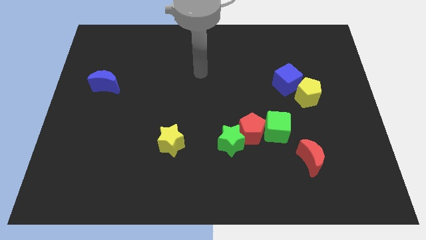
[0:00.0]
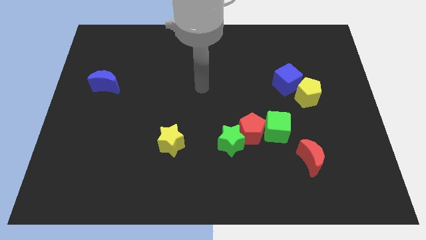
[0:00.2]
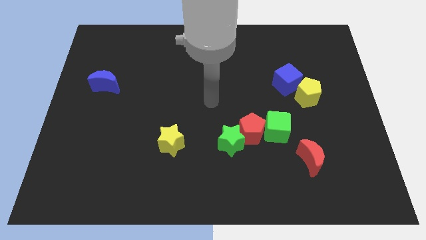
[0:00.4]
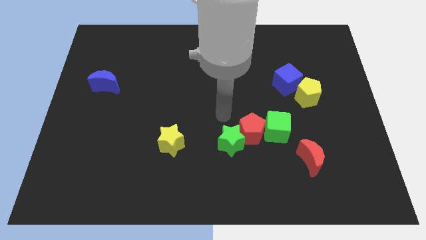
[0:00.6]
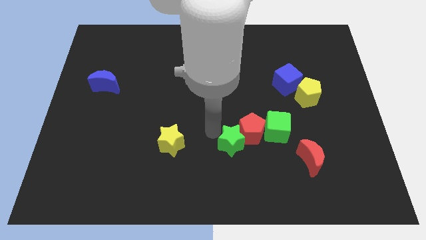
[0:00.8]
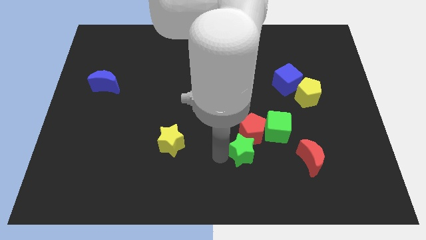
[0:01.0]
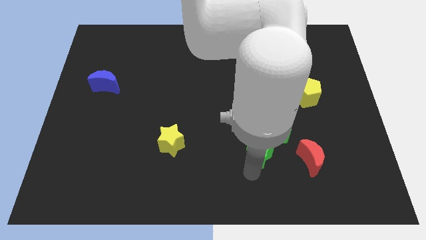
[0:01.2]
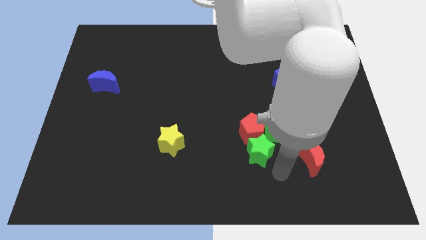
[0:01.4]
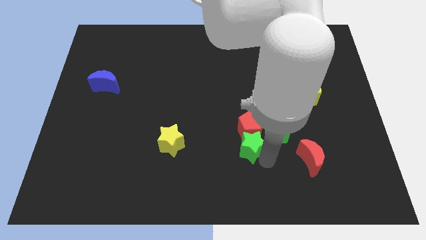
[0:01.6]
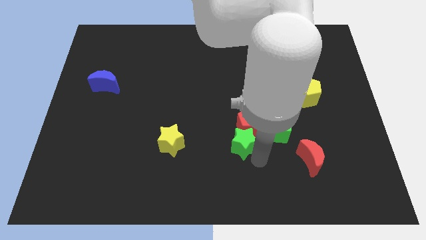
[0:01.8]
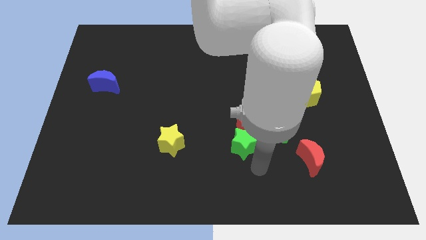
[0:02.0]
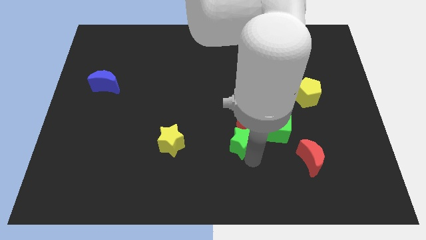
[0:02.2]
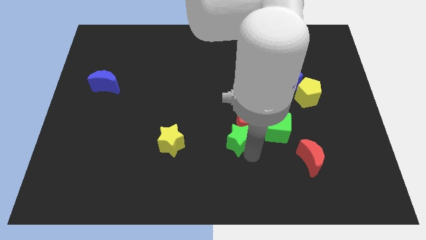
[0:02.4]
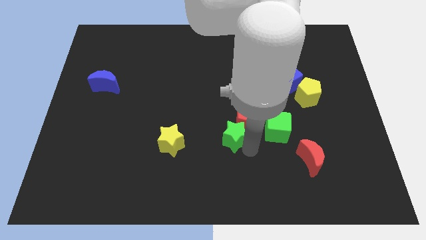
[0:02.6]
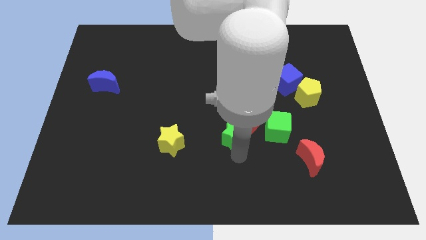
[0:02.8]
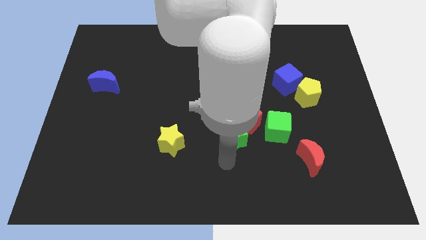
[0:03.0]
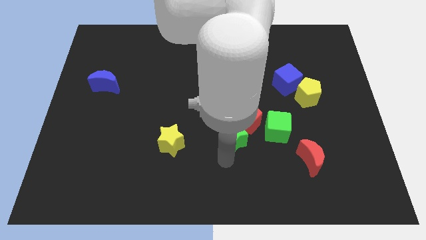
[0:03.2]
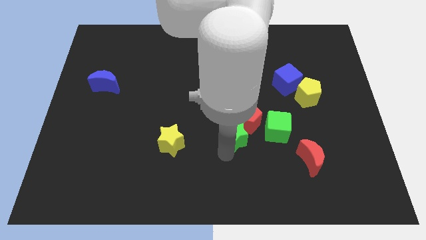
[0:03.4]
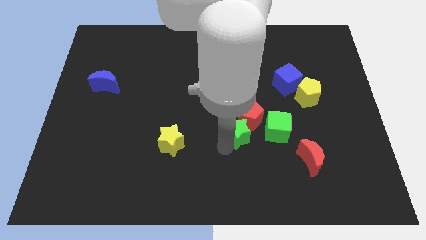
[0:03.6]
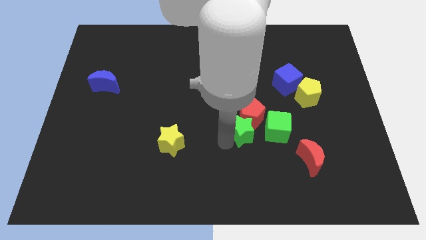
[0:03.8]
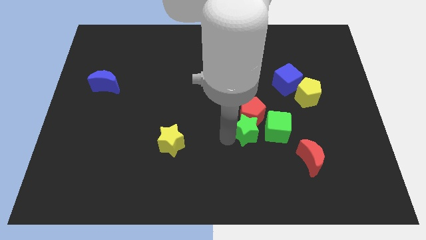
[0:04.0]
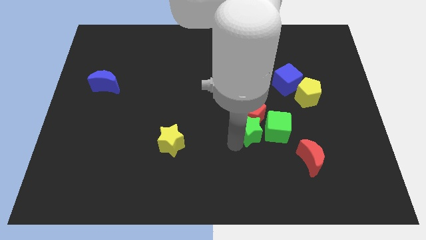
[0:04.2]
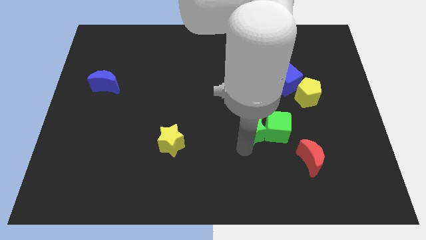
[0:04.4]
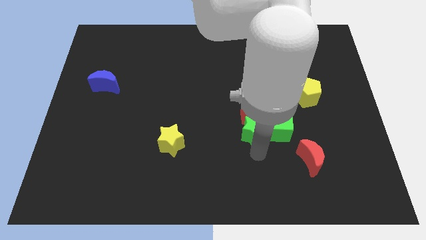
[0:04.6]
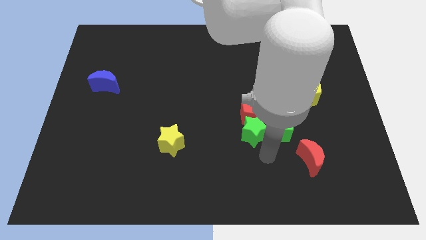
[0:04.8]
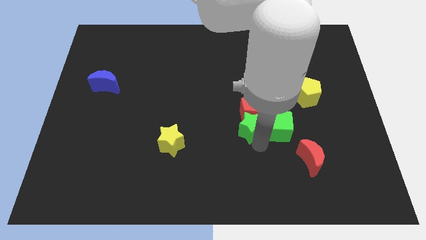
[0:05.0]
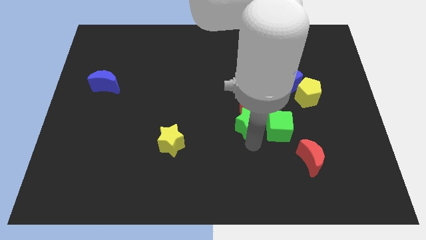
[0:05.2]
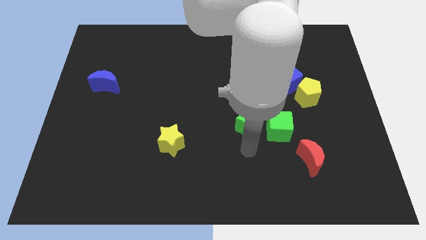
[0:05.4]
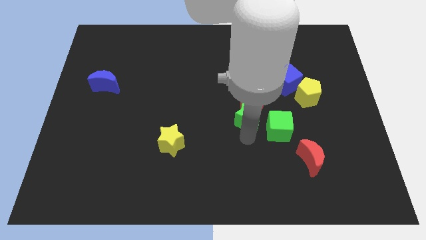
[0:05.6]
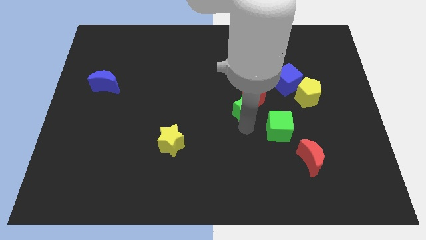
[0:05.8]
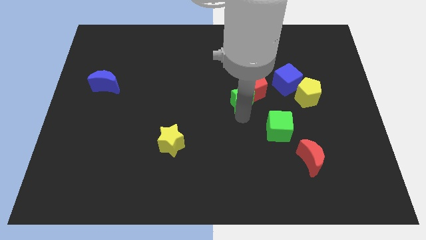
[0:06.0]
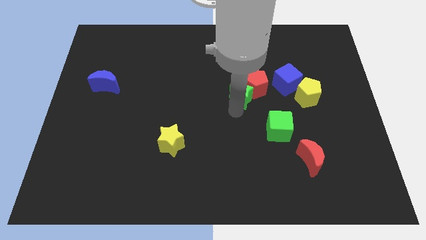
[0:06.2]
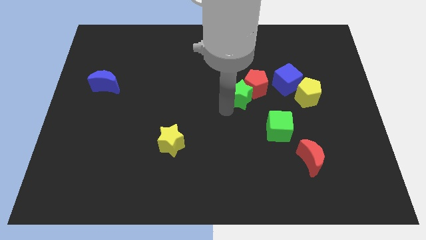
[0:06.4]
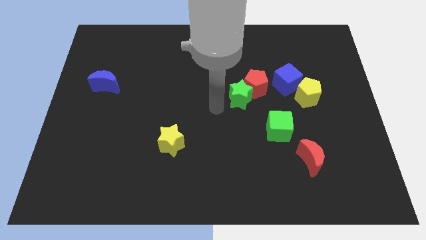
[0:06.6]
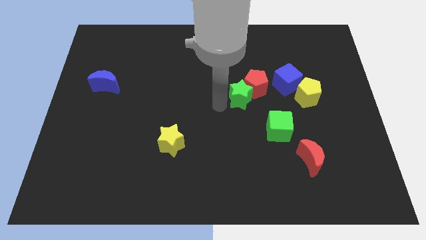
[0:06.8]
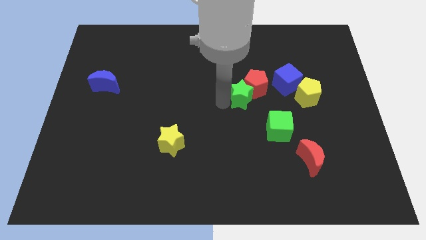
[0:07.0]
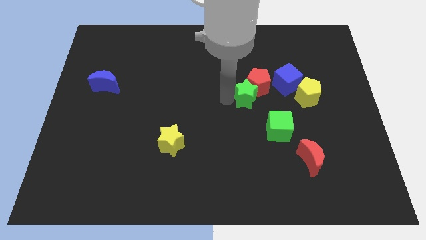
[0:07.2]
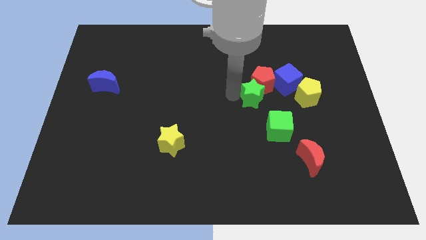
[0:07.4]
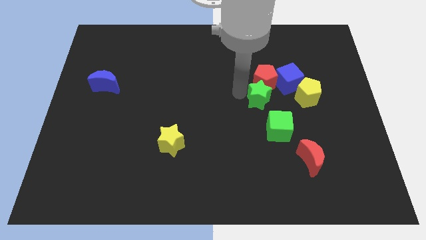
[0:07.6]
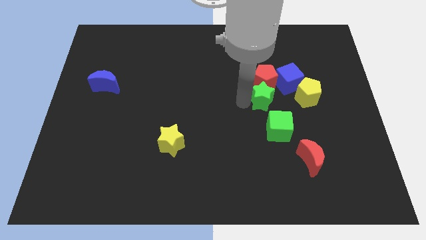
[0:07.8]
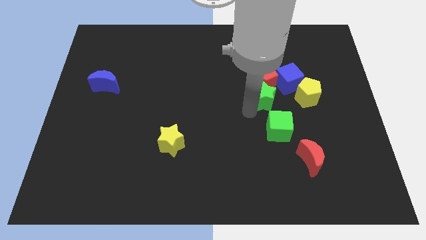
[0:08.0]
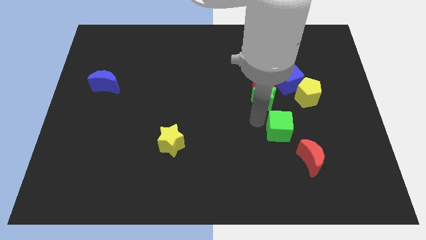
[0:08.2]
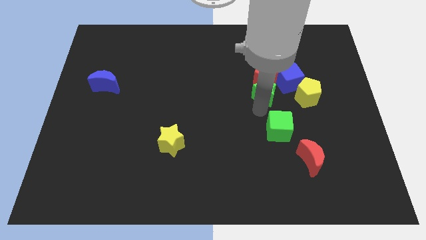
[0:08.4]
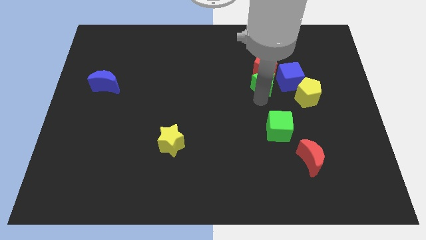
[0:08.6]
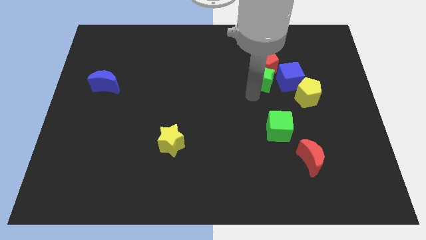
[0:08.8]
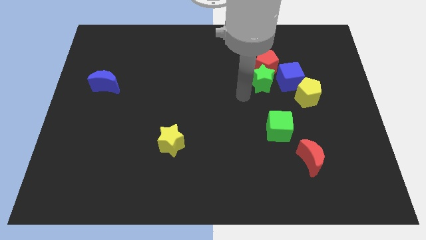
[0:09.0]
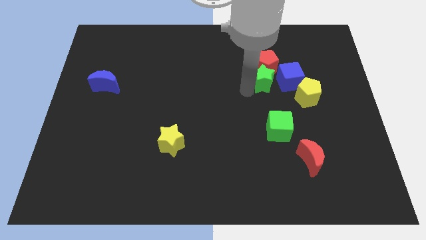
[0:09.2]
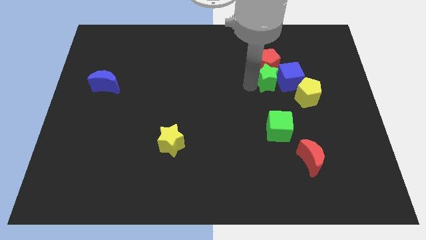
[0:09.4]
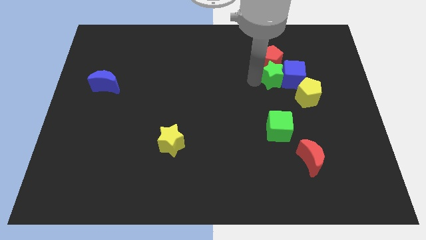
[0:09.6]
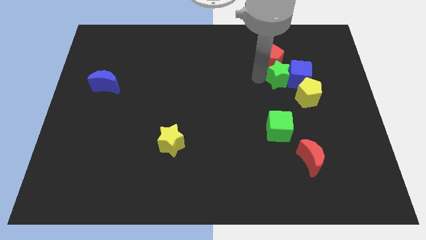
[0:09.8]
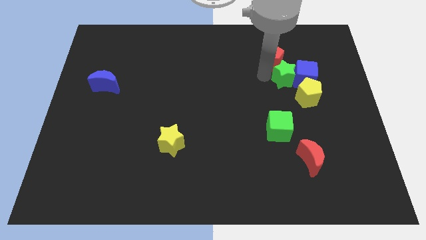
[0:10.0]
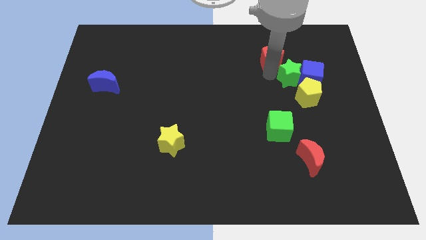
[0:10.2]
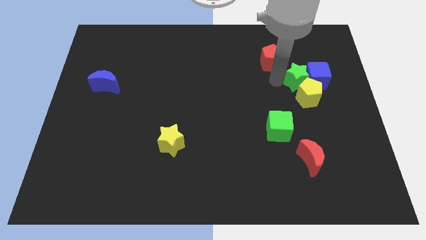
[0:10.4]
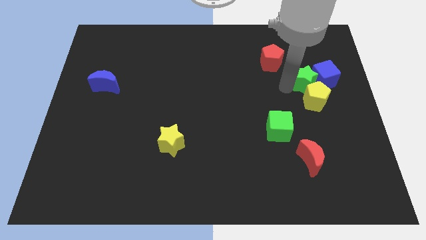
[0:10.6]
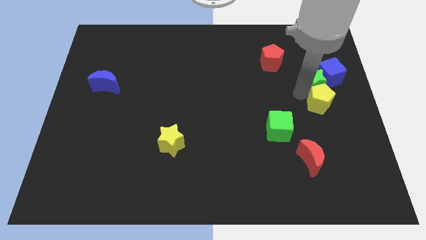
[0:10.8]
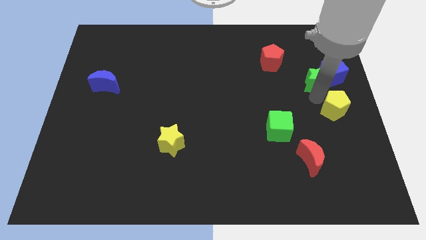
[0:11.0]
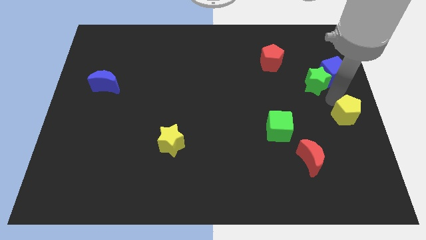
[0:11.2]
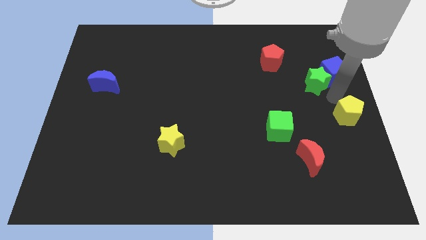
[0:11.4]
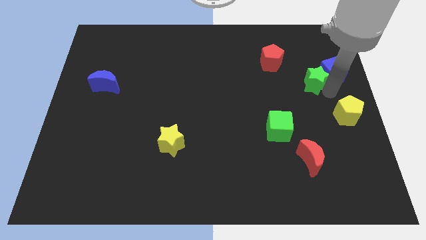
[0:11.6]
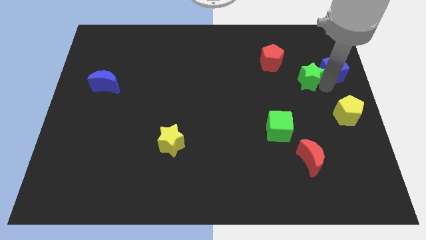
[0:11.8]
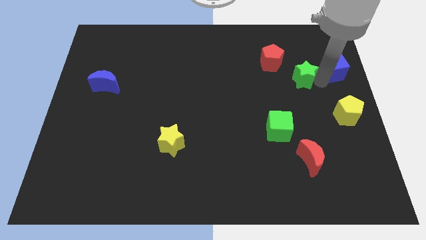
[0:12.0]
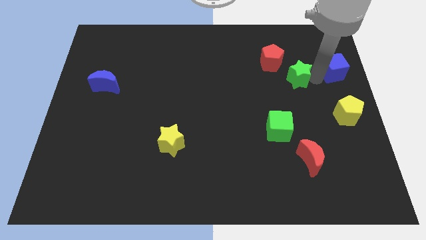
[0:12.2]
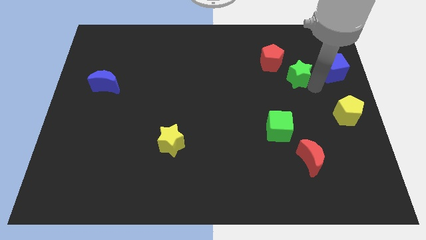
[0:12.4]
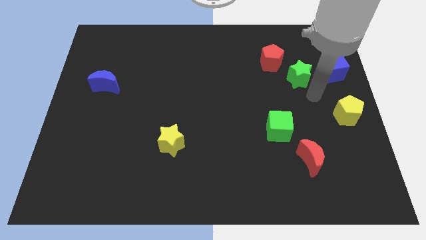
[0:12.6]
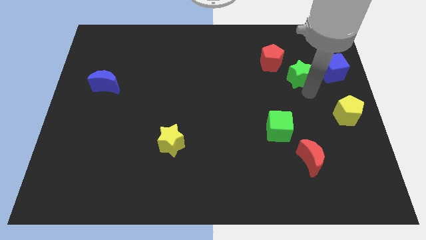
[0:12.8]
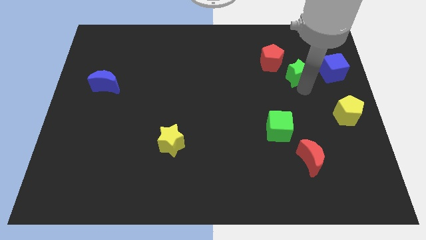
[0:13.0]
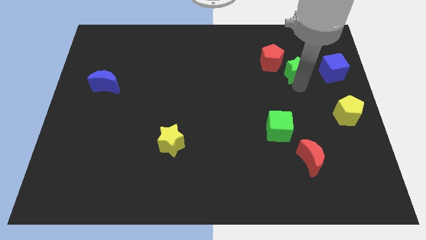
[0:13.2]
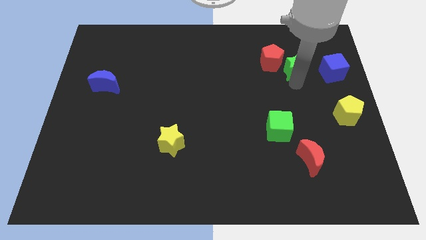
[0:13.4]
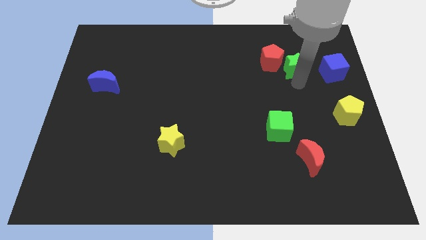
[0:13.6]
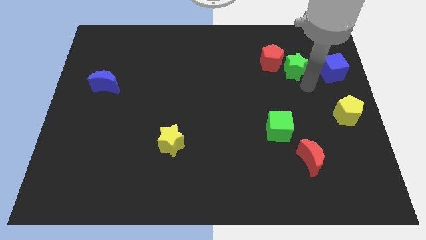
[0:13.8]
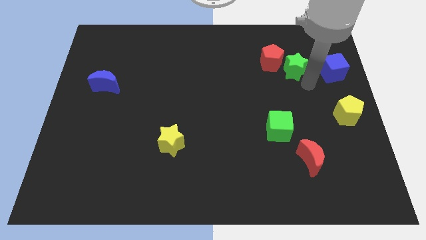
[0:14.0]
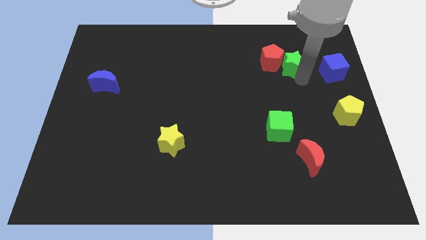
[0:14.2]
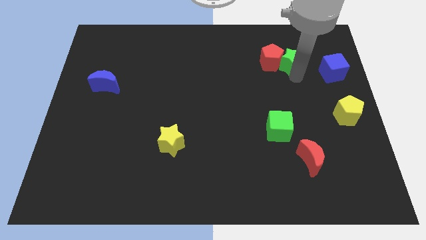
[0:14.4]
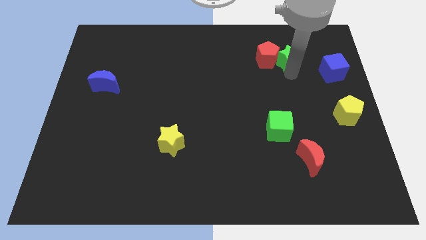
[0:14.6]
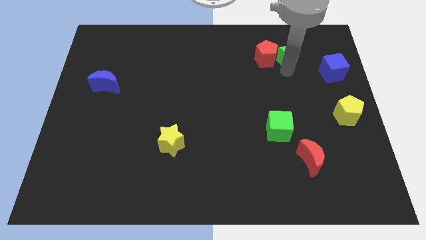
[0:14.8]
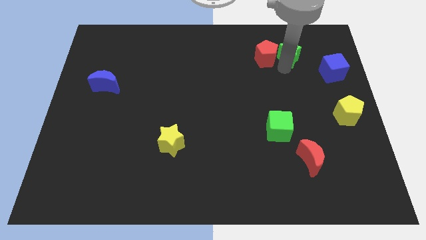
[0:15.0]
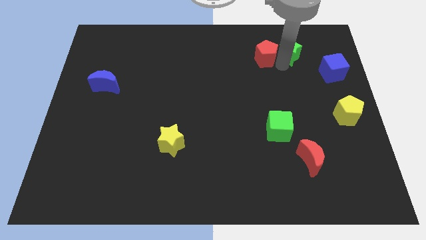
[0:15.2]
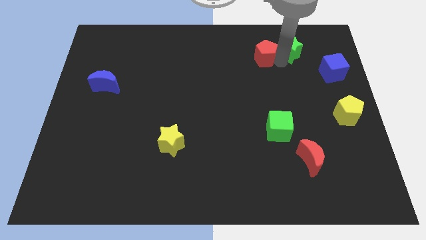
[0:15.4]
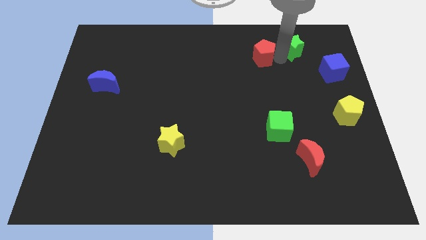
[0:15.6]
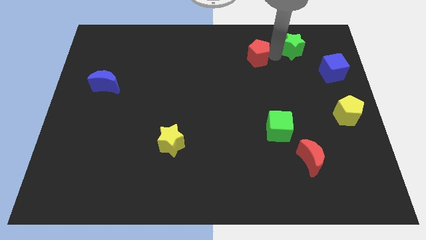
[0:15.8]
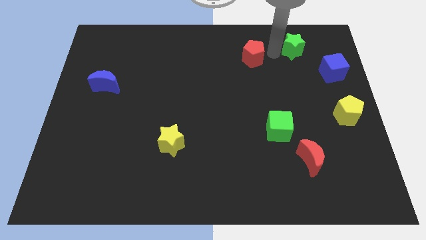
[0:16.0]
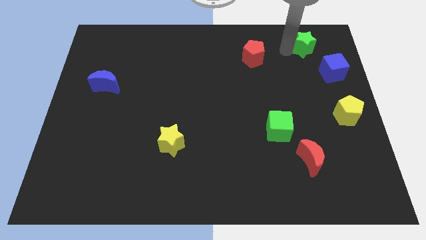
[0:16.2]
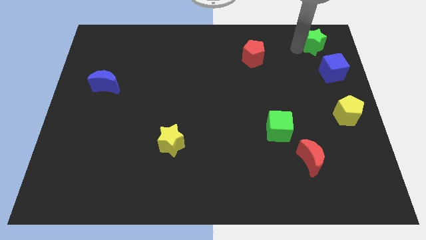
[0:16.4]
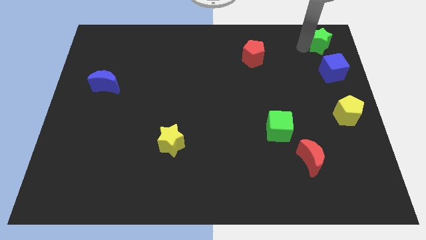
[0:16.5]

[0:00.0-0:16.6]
move the green star to the top right
